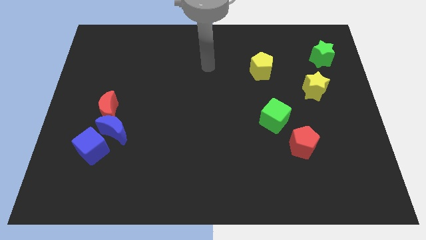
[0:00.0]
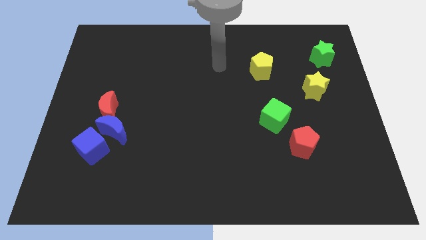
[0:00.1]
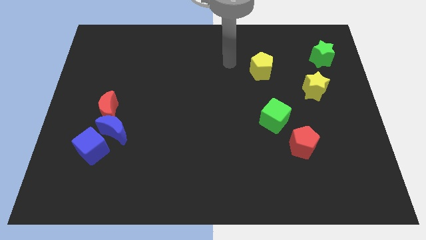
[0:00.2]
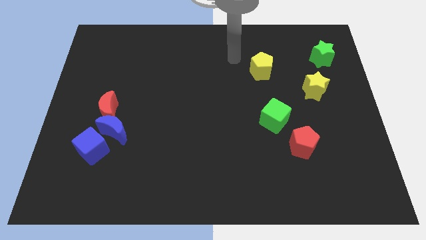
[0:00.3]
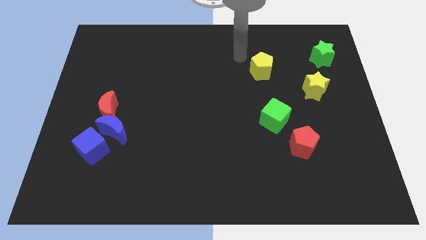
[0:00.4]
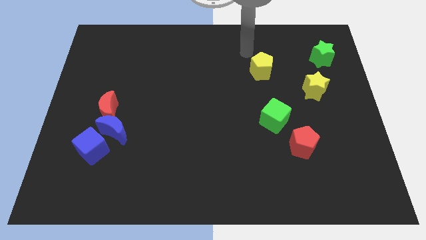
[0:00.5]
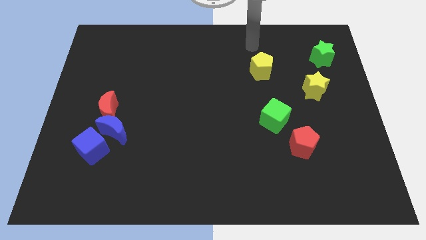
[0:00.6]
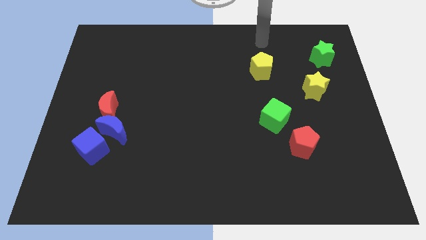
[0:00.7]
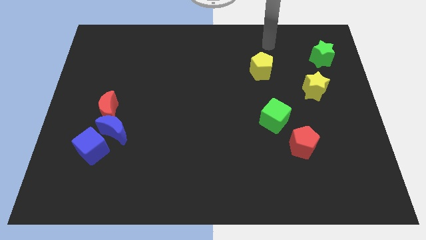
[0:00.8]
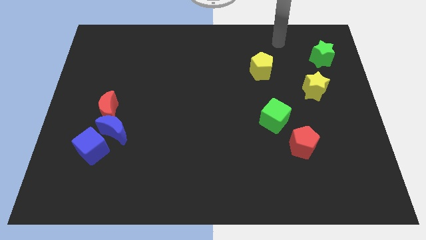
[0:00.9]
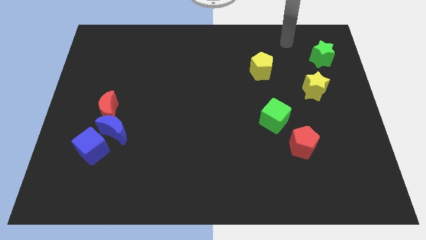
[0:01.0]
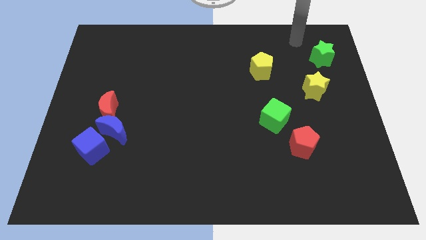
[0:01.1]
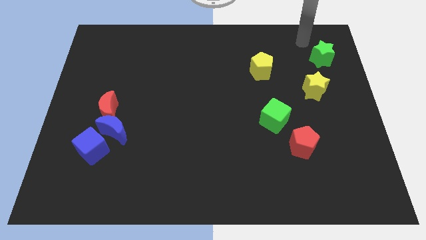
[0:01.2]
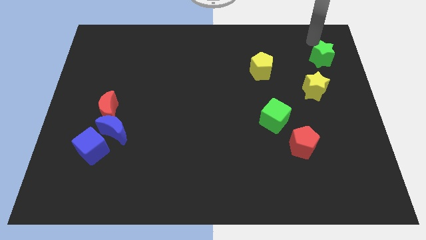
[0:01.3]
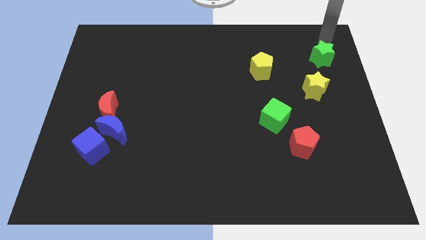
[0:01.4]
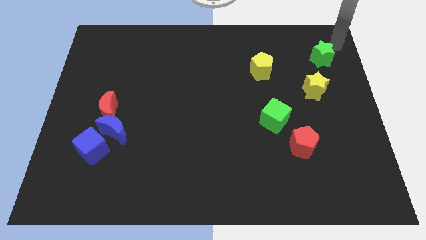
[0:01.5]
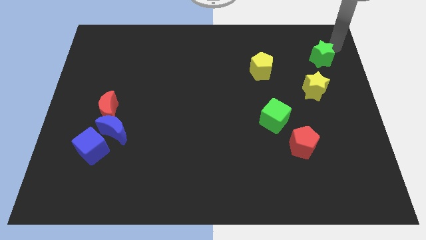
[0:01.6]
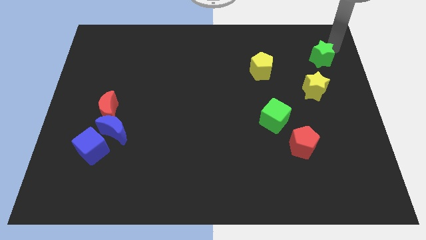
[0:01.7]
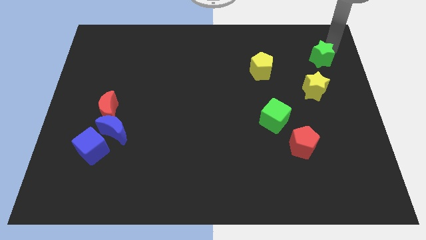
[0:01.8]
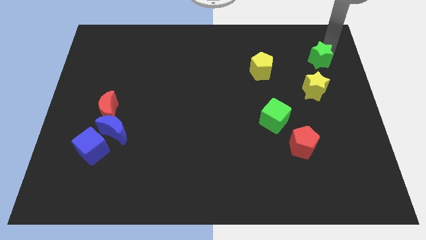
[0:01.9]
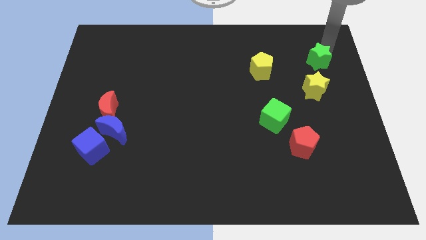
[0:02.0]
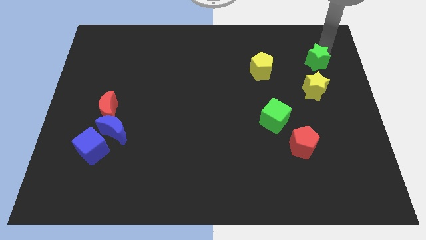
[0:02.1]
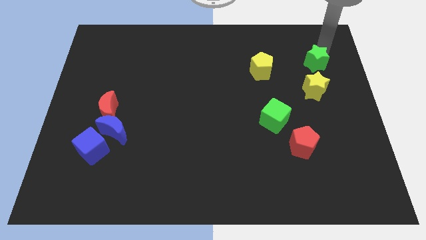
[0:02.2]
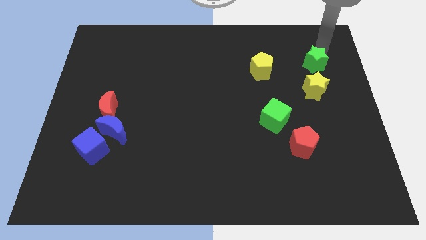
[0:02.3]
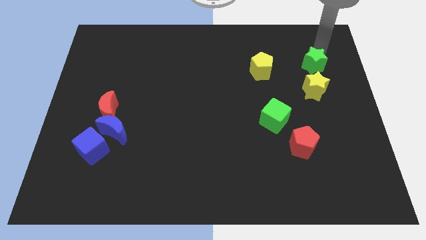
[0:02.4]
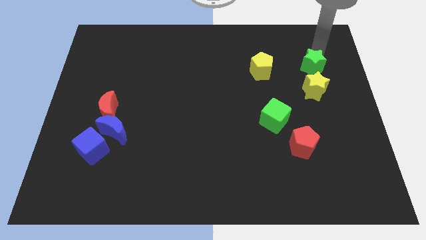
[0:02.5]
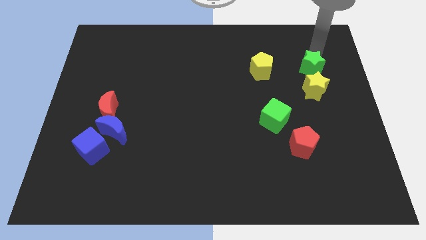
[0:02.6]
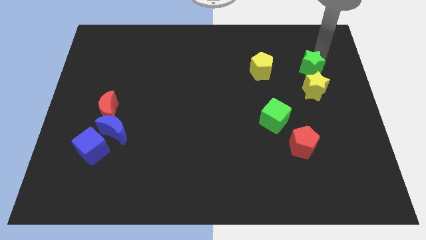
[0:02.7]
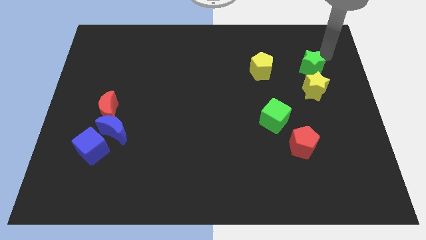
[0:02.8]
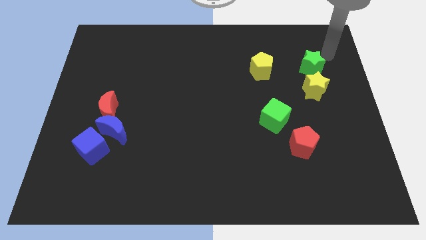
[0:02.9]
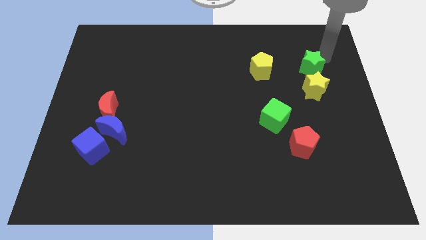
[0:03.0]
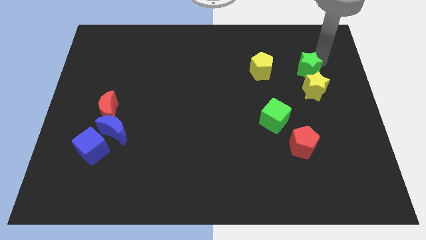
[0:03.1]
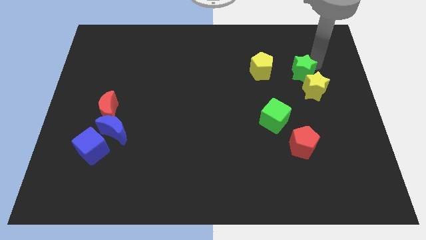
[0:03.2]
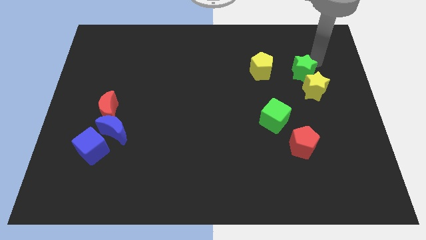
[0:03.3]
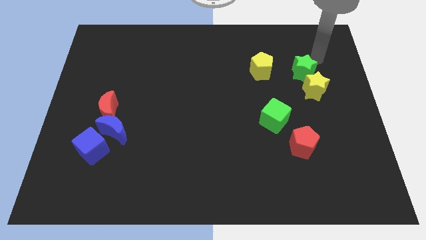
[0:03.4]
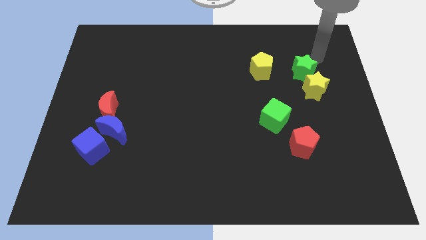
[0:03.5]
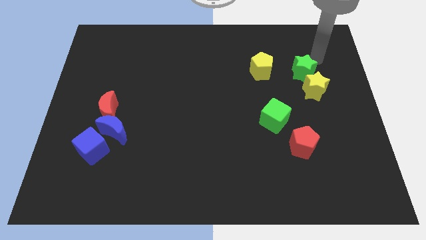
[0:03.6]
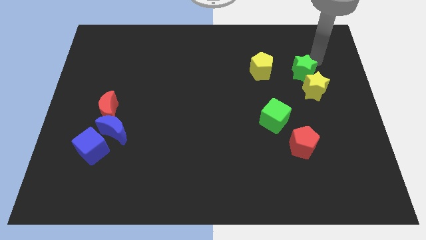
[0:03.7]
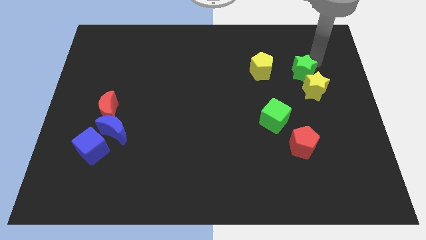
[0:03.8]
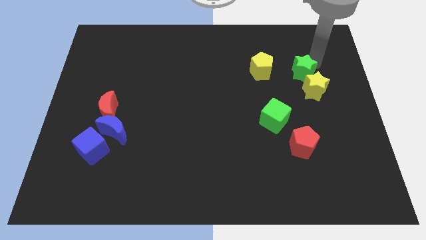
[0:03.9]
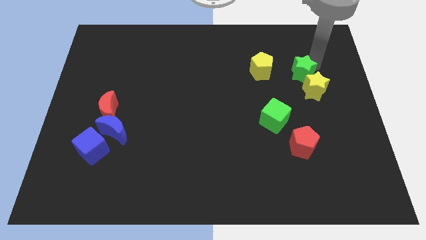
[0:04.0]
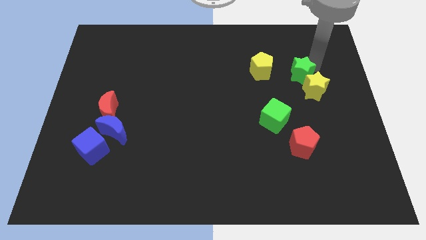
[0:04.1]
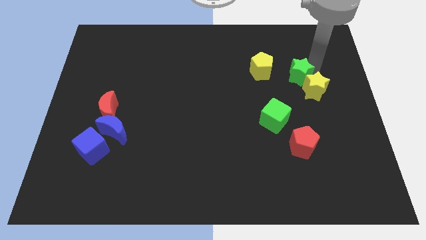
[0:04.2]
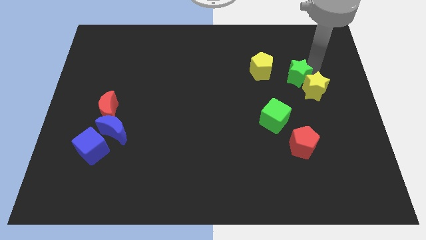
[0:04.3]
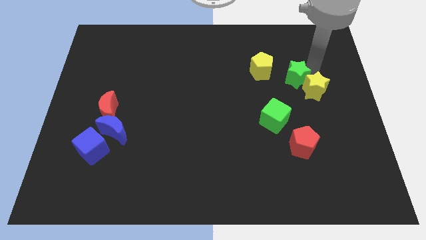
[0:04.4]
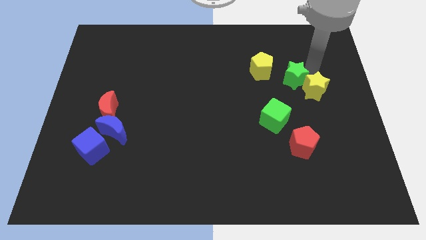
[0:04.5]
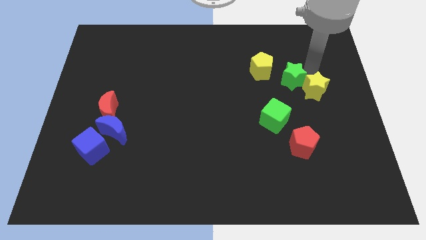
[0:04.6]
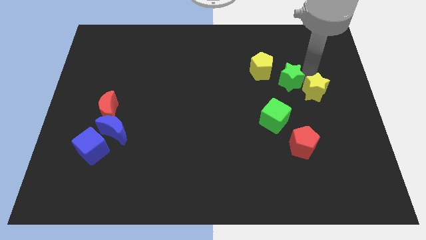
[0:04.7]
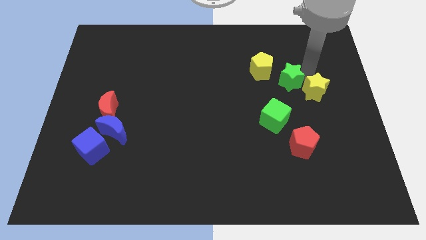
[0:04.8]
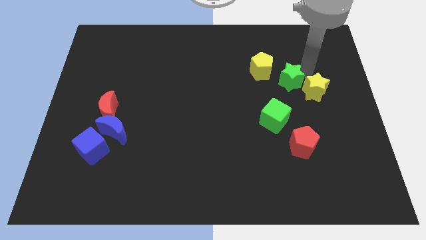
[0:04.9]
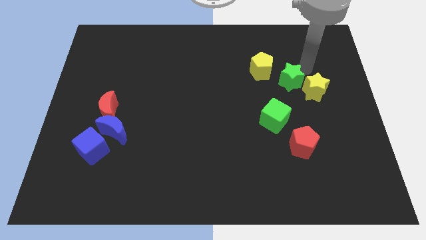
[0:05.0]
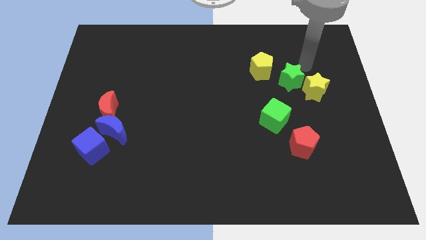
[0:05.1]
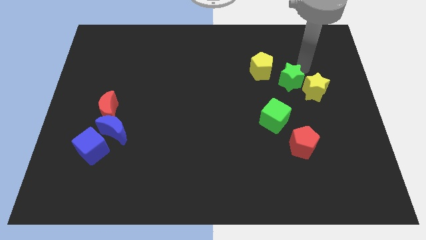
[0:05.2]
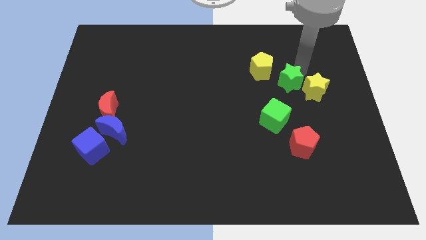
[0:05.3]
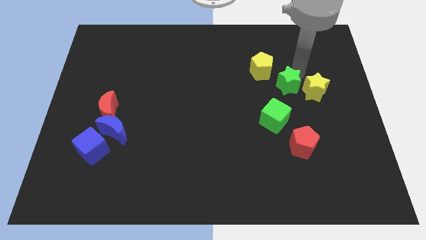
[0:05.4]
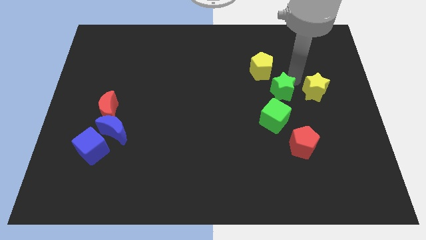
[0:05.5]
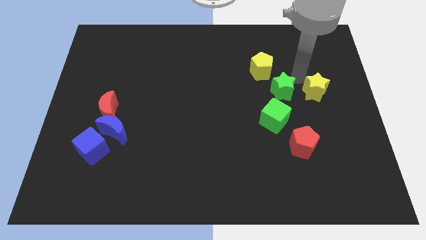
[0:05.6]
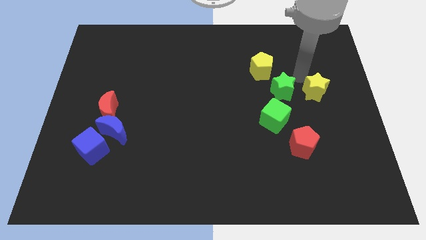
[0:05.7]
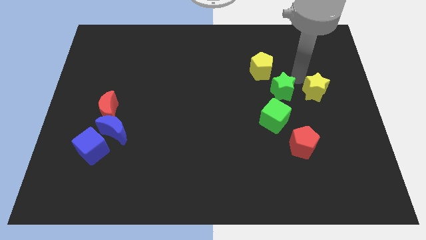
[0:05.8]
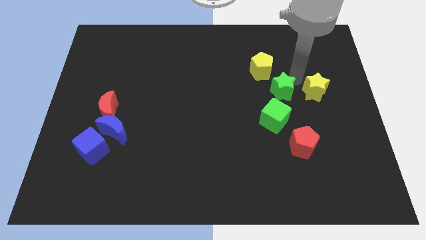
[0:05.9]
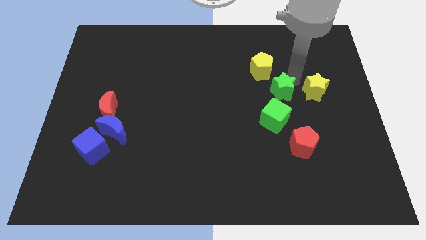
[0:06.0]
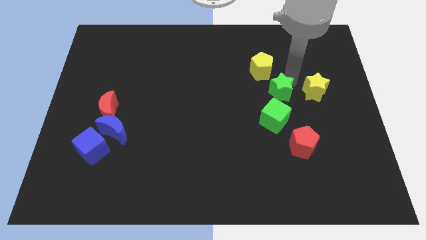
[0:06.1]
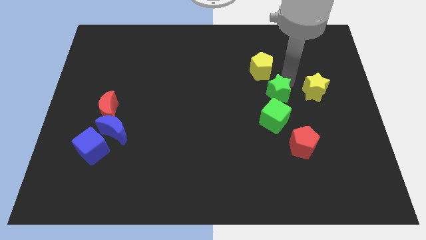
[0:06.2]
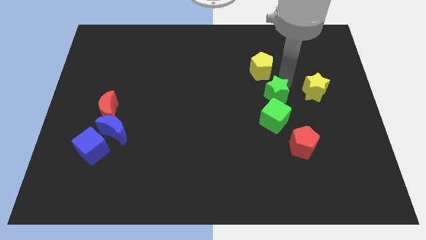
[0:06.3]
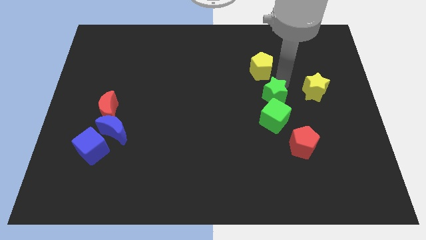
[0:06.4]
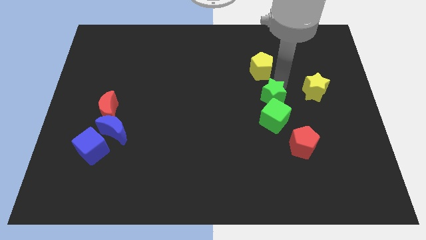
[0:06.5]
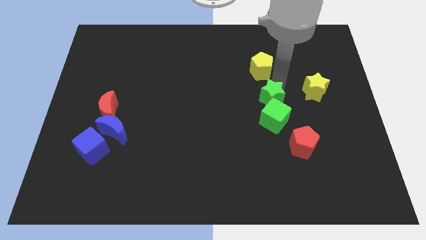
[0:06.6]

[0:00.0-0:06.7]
slide the green star down and then to the left

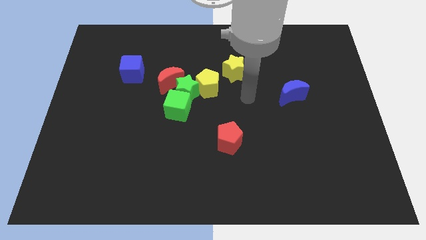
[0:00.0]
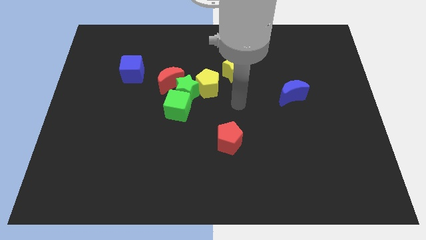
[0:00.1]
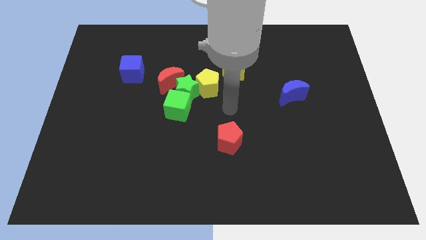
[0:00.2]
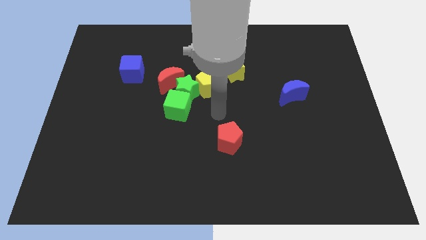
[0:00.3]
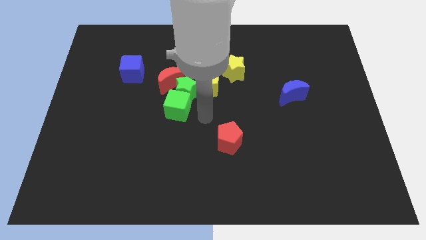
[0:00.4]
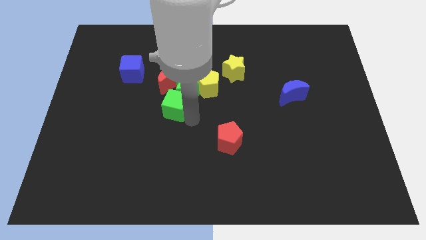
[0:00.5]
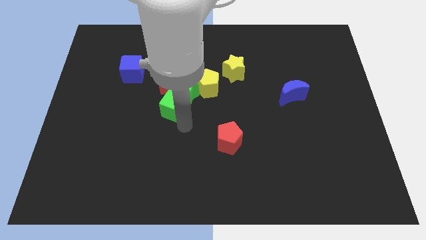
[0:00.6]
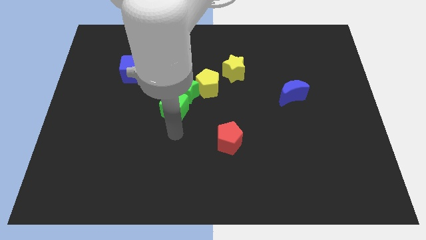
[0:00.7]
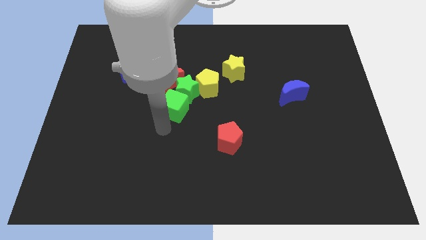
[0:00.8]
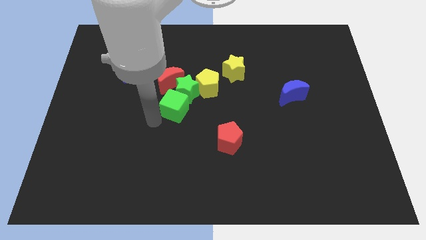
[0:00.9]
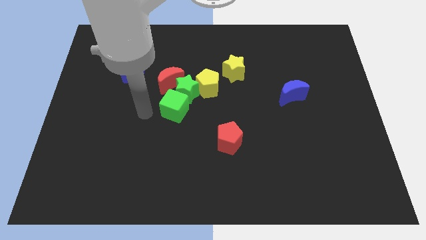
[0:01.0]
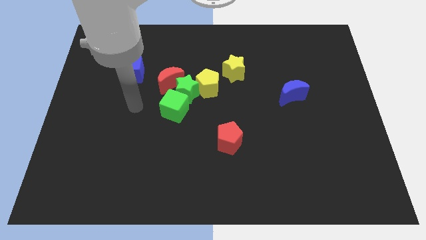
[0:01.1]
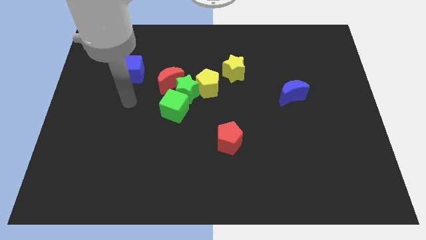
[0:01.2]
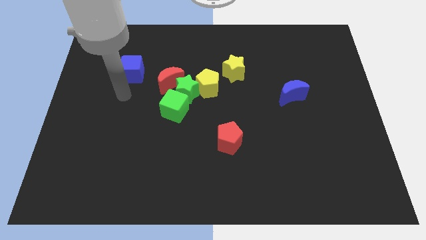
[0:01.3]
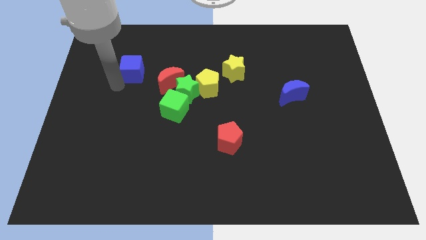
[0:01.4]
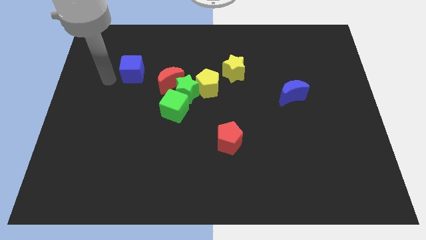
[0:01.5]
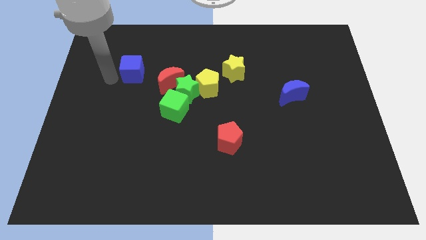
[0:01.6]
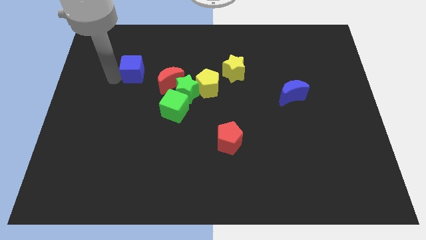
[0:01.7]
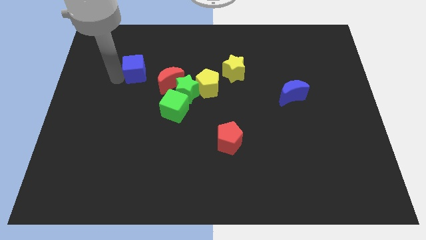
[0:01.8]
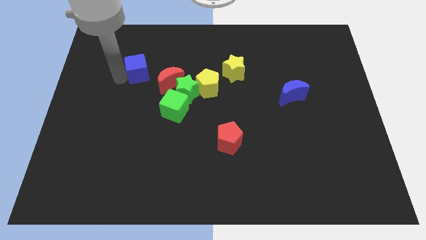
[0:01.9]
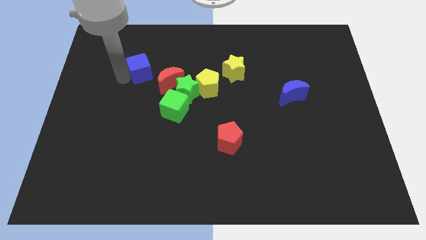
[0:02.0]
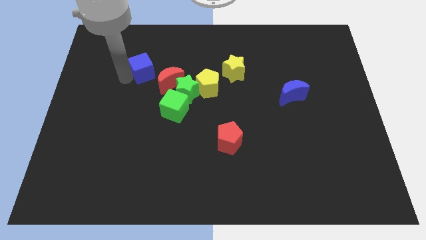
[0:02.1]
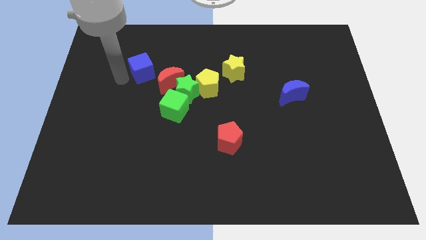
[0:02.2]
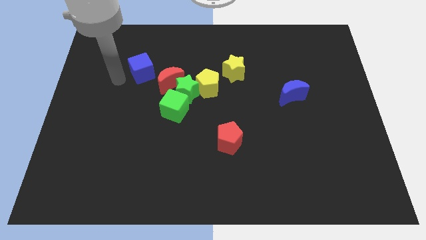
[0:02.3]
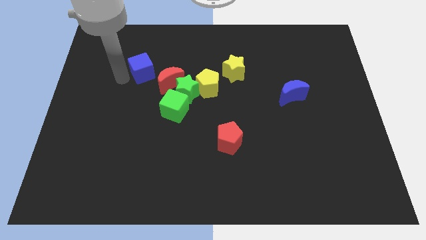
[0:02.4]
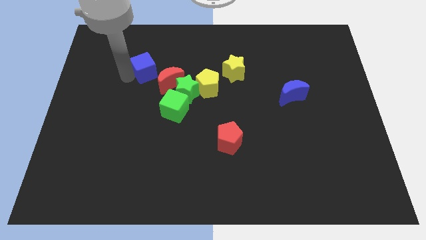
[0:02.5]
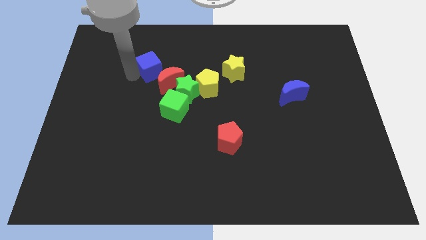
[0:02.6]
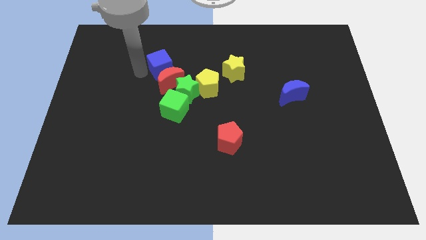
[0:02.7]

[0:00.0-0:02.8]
slightly move the blue cube right
